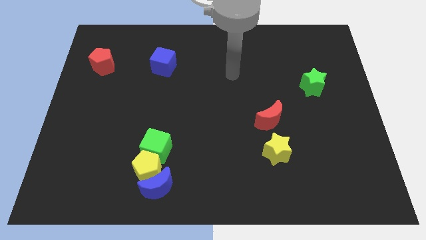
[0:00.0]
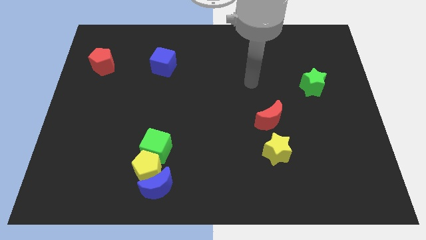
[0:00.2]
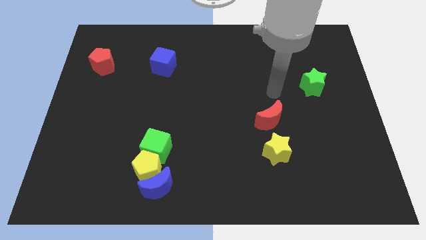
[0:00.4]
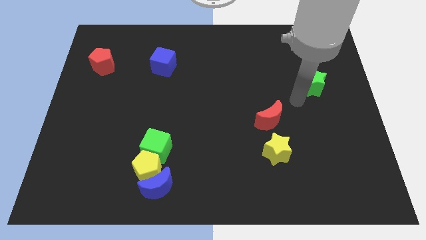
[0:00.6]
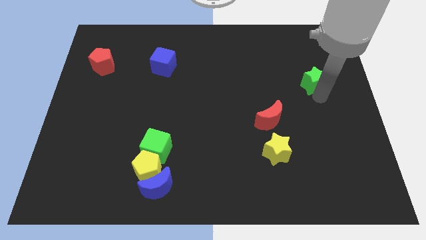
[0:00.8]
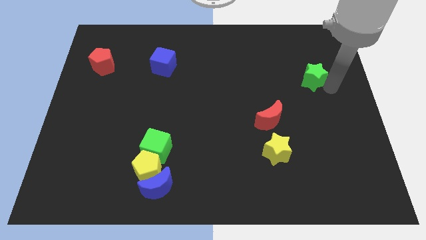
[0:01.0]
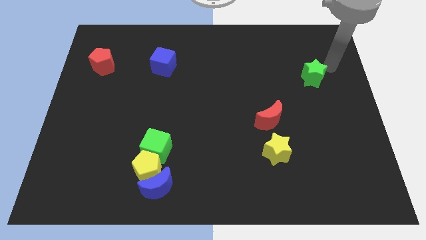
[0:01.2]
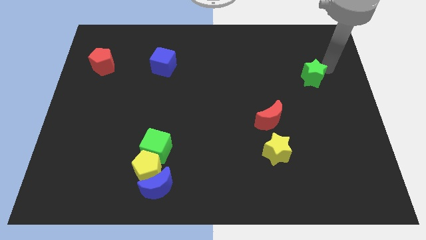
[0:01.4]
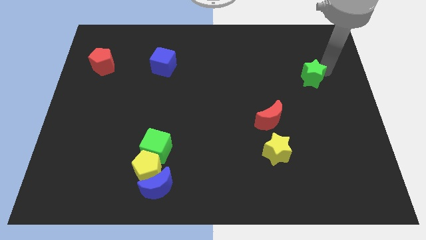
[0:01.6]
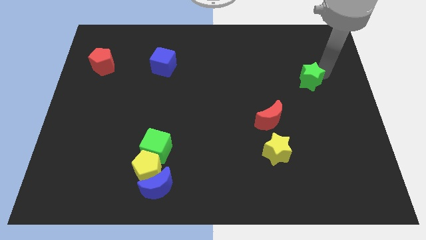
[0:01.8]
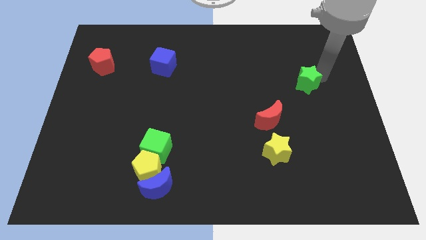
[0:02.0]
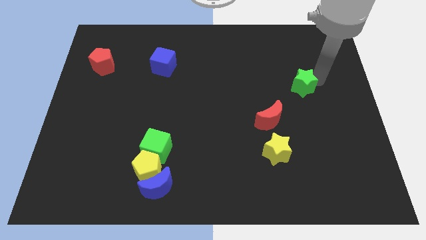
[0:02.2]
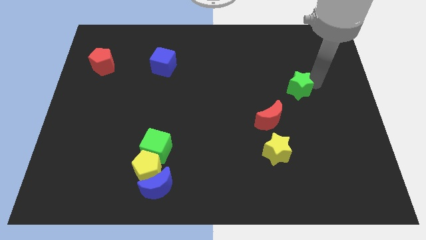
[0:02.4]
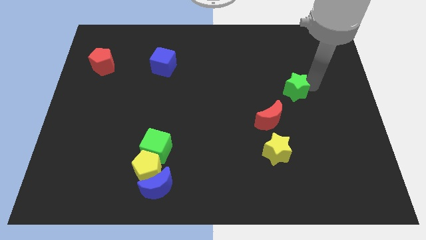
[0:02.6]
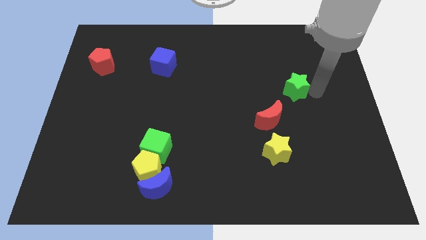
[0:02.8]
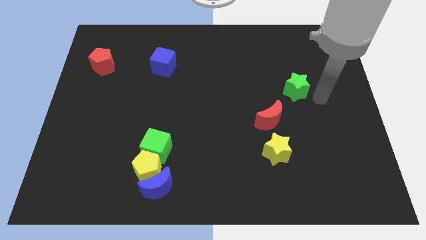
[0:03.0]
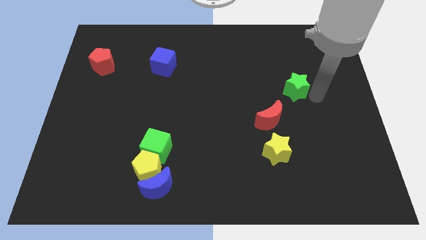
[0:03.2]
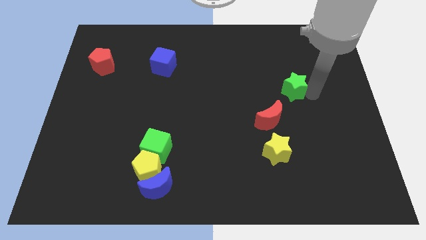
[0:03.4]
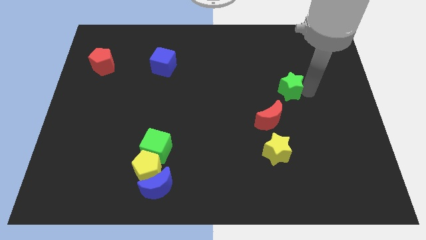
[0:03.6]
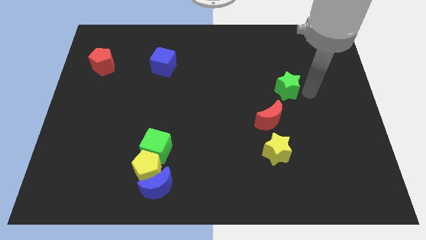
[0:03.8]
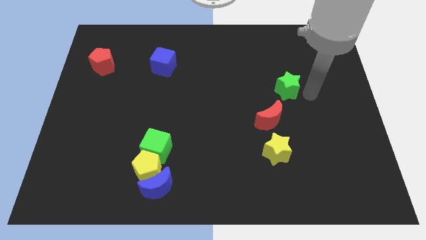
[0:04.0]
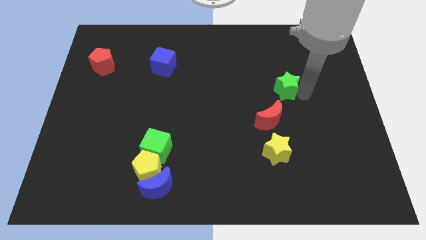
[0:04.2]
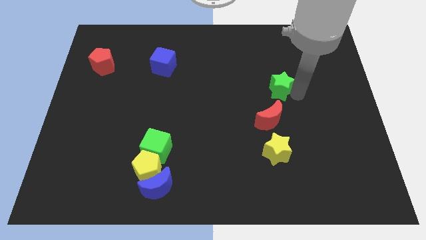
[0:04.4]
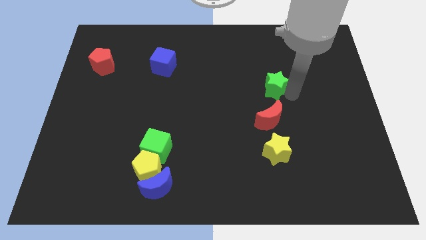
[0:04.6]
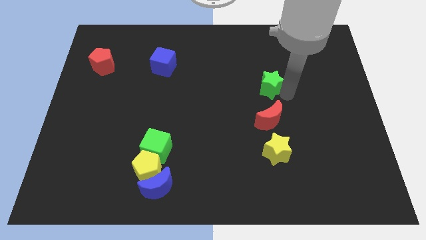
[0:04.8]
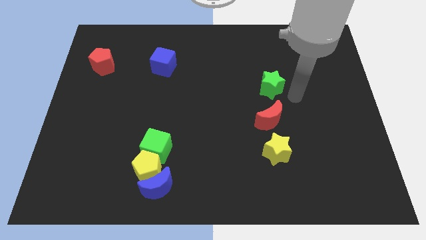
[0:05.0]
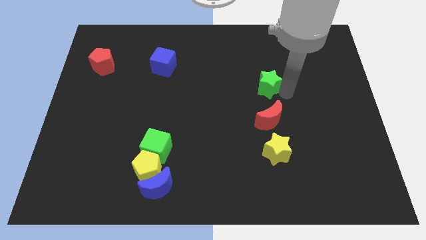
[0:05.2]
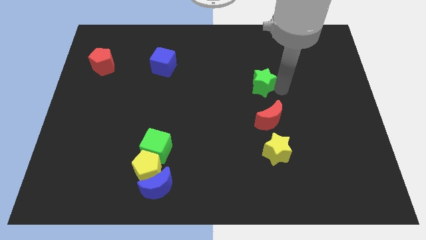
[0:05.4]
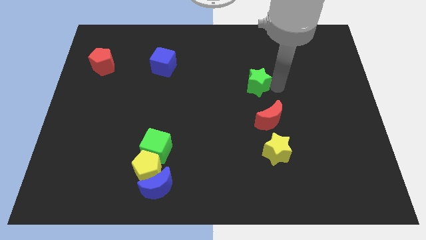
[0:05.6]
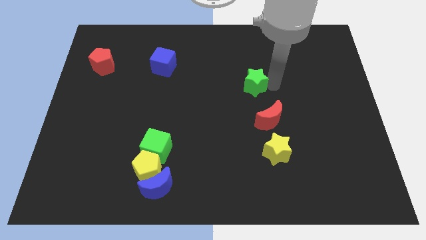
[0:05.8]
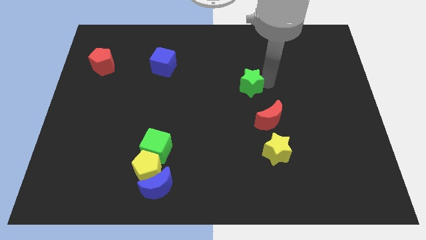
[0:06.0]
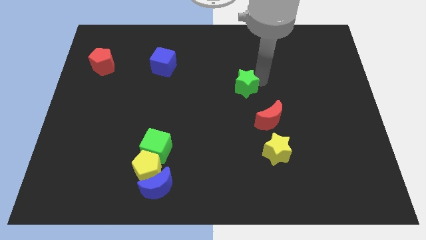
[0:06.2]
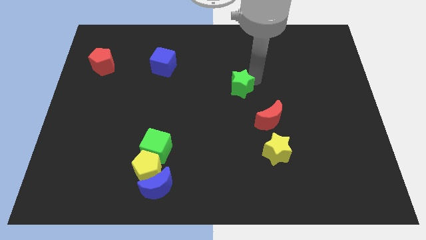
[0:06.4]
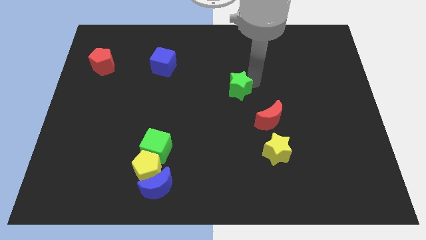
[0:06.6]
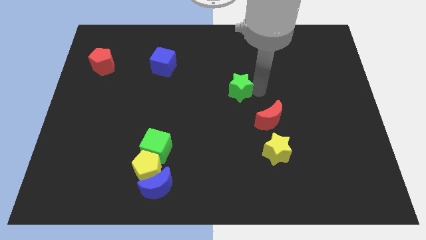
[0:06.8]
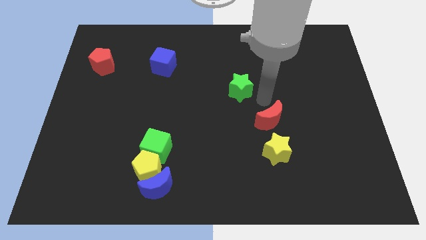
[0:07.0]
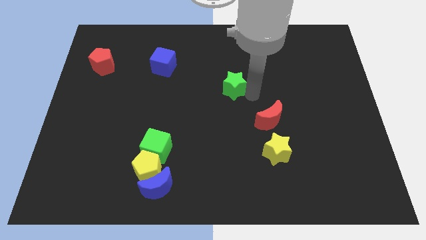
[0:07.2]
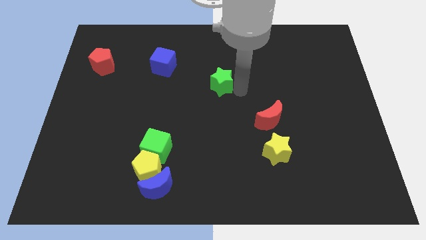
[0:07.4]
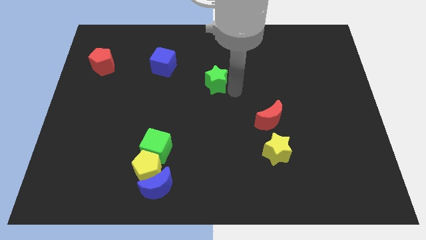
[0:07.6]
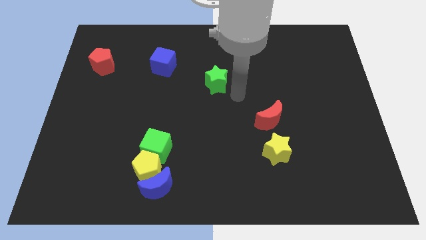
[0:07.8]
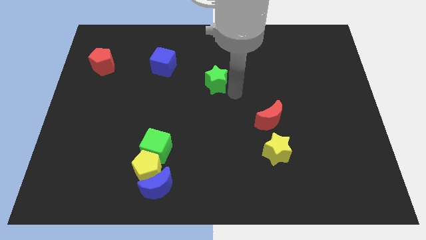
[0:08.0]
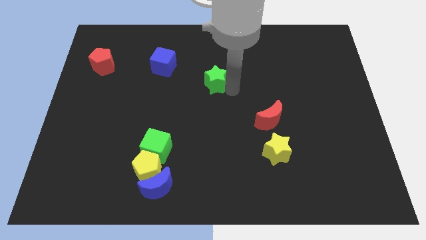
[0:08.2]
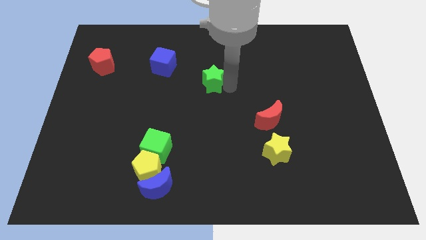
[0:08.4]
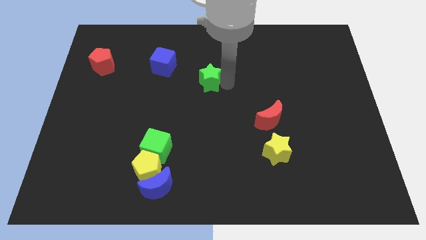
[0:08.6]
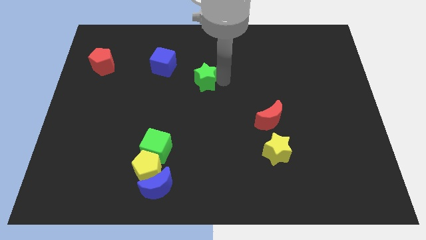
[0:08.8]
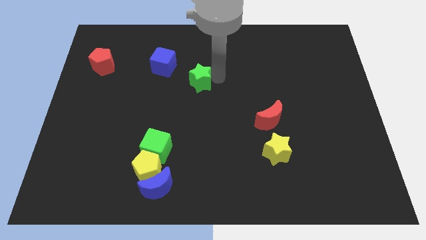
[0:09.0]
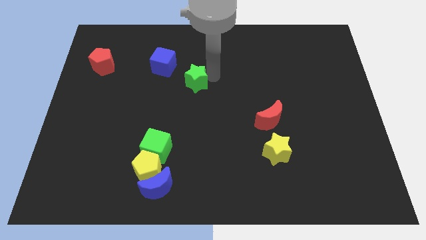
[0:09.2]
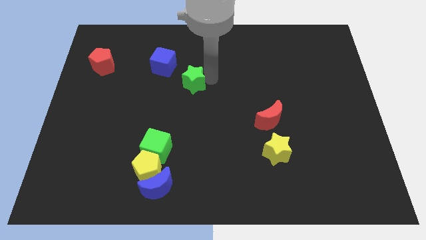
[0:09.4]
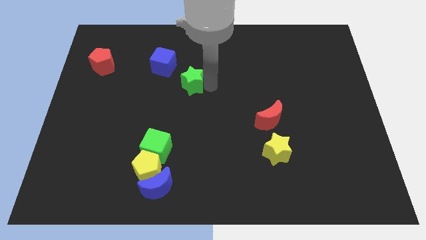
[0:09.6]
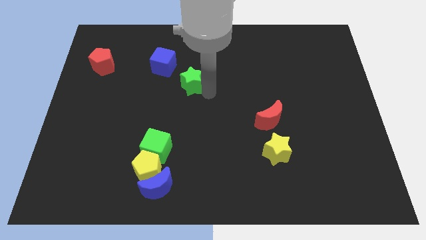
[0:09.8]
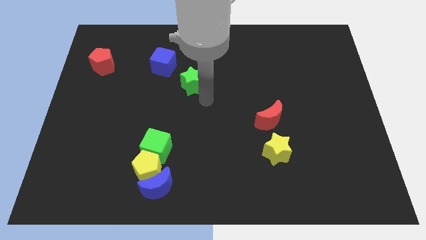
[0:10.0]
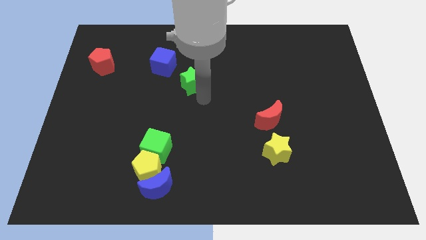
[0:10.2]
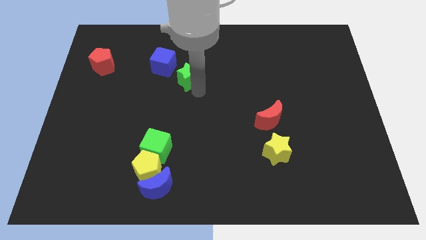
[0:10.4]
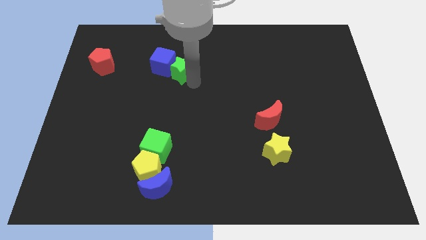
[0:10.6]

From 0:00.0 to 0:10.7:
slide the green star next to the blue cube

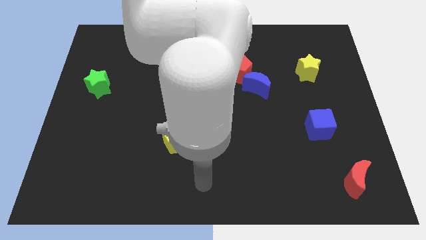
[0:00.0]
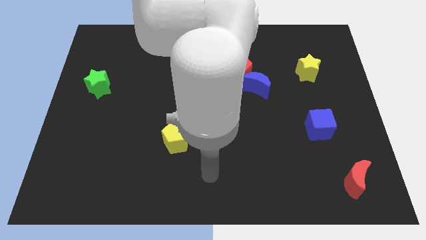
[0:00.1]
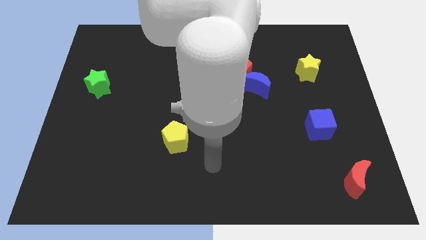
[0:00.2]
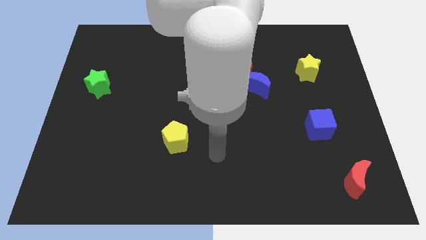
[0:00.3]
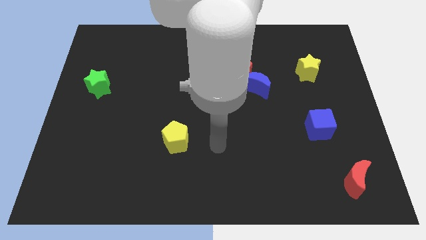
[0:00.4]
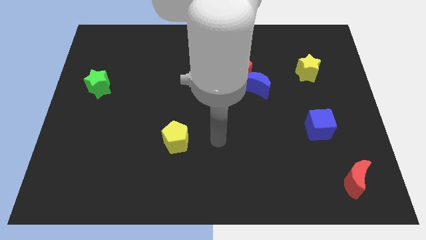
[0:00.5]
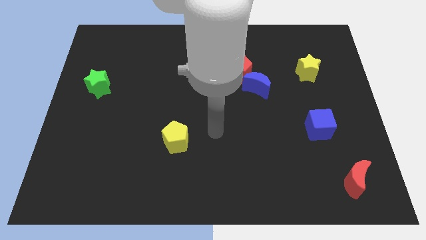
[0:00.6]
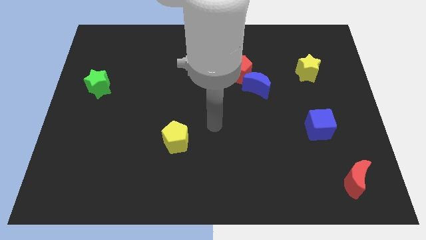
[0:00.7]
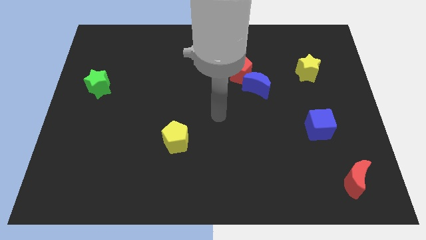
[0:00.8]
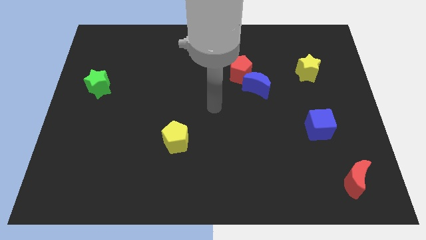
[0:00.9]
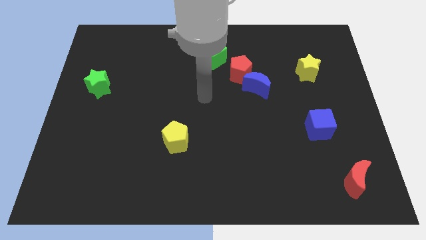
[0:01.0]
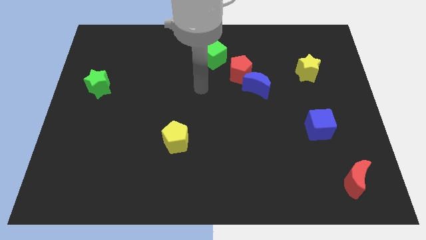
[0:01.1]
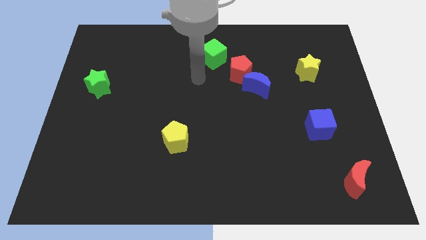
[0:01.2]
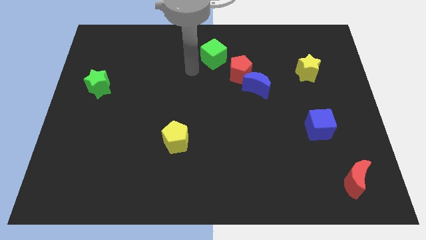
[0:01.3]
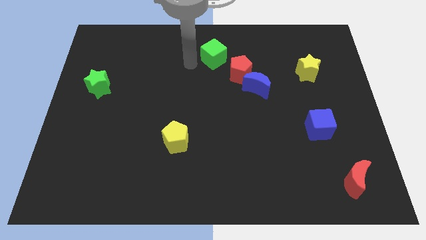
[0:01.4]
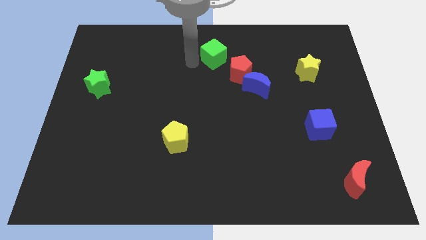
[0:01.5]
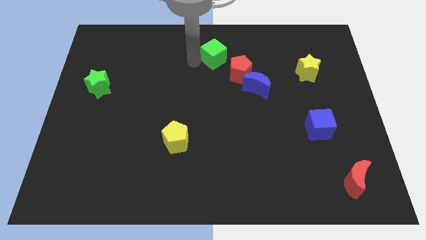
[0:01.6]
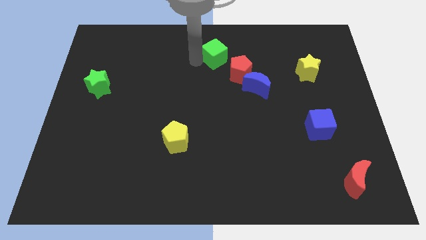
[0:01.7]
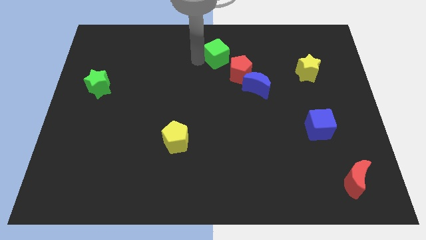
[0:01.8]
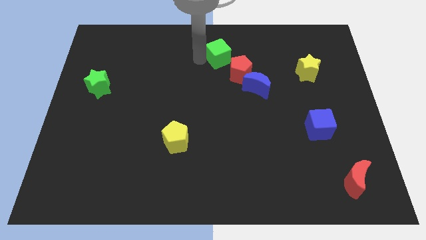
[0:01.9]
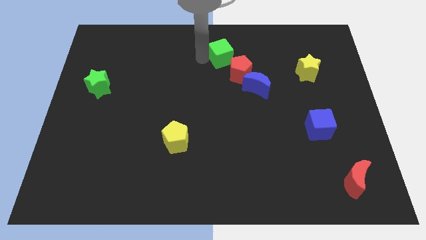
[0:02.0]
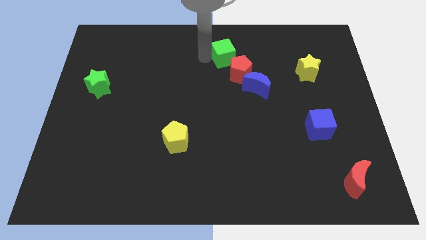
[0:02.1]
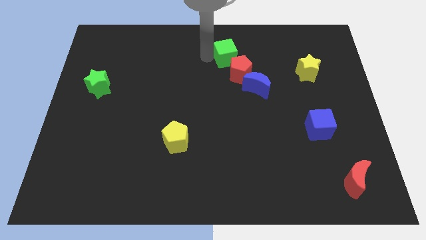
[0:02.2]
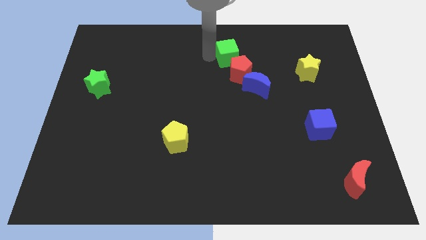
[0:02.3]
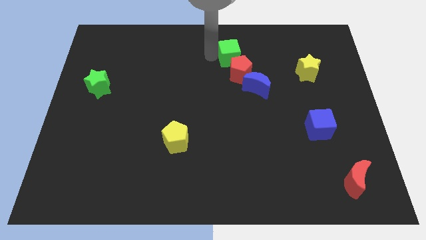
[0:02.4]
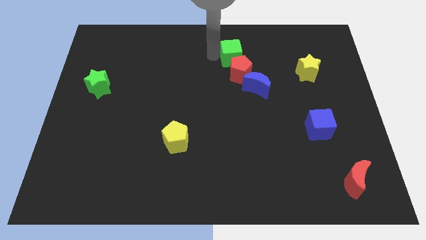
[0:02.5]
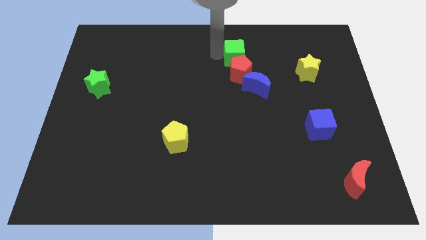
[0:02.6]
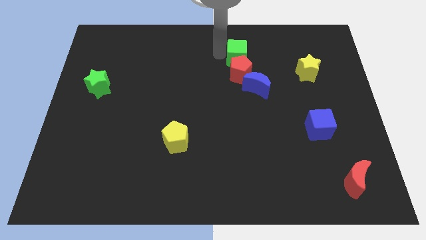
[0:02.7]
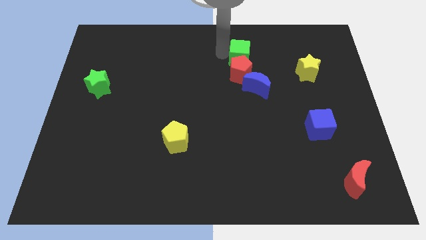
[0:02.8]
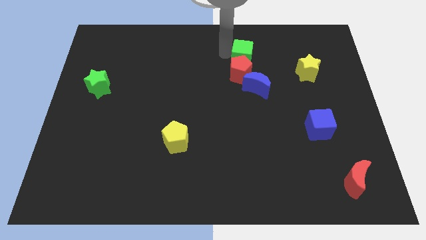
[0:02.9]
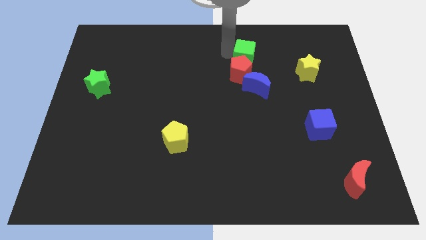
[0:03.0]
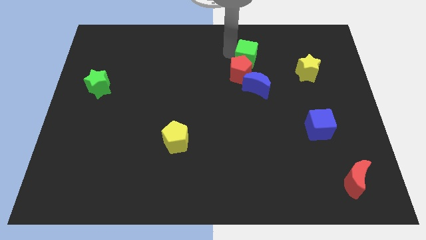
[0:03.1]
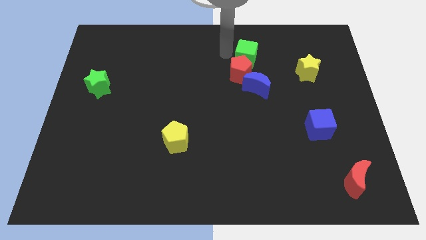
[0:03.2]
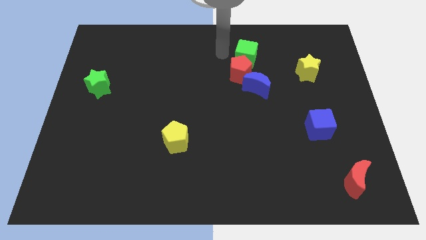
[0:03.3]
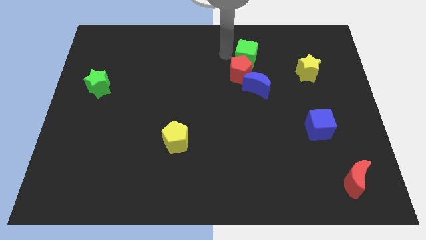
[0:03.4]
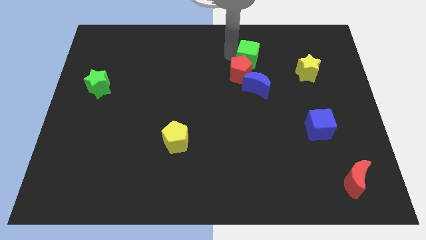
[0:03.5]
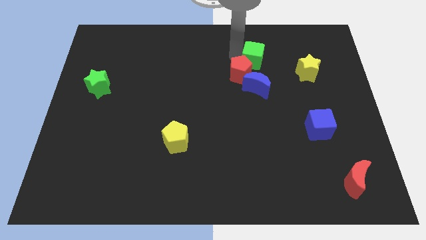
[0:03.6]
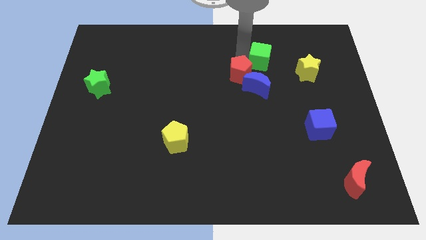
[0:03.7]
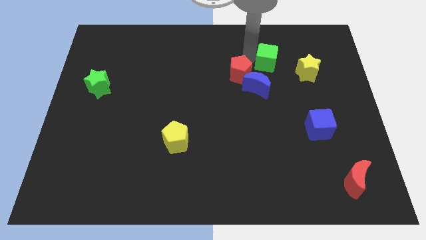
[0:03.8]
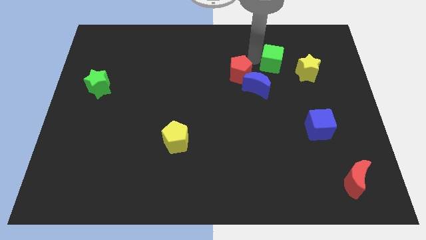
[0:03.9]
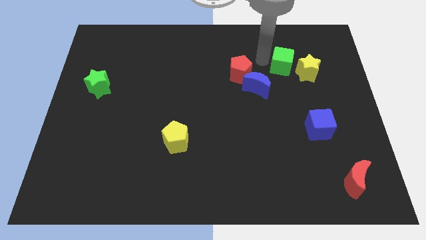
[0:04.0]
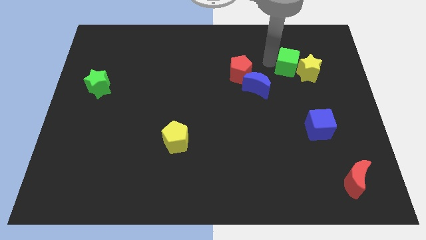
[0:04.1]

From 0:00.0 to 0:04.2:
slide the green cube close to the yellow star
